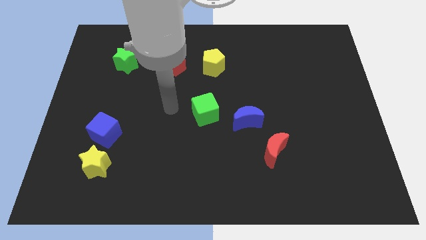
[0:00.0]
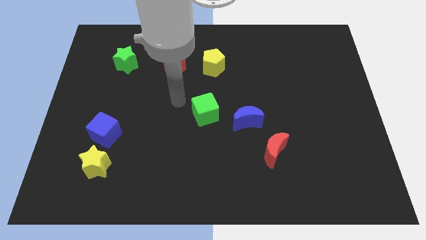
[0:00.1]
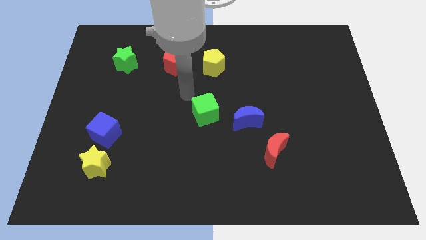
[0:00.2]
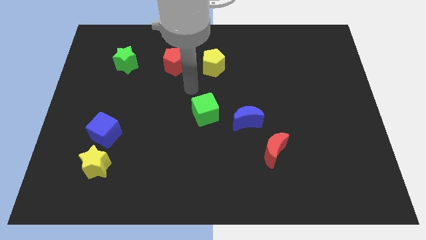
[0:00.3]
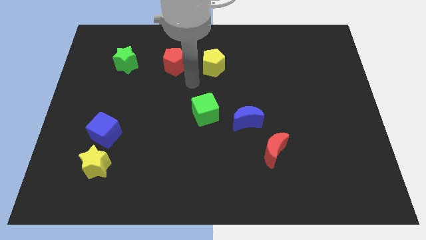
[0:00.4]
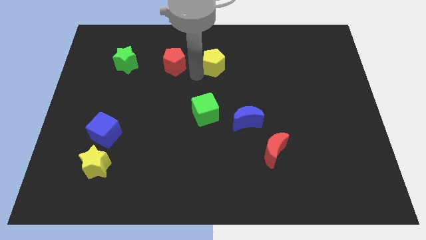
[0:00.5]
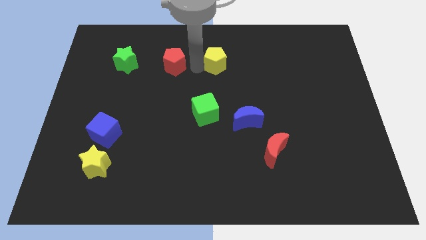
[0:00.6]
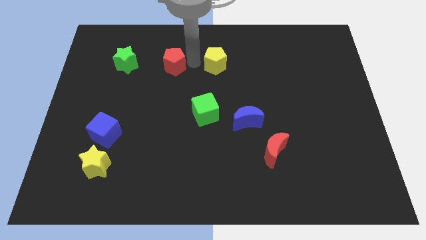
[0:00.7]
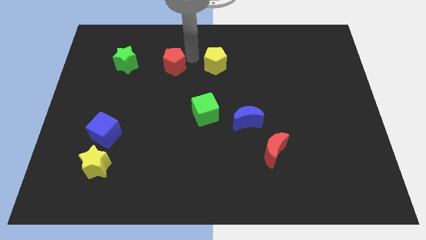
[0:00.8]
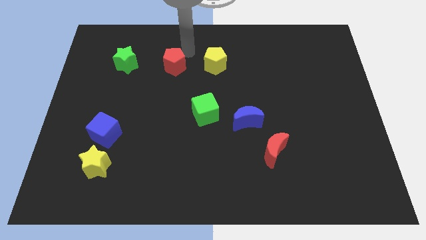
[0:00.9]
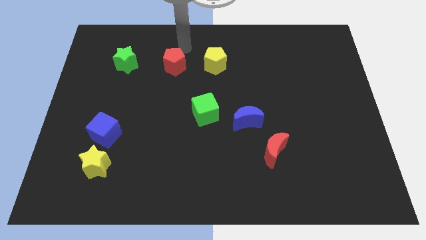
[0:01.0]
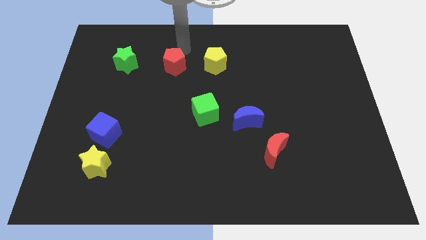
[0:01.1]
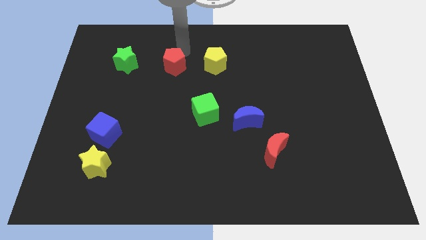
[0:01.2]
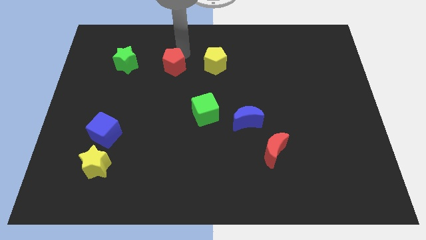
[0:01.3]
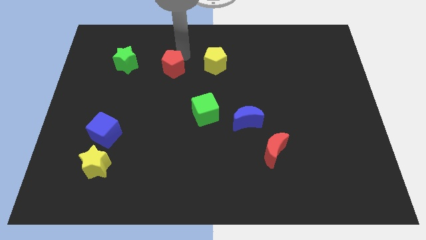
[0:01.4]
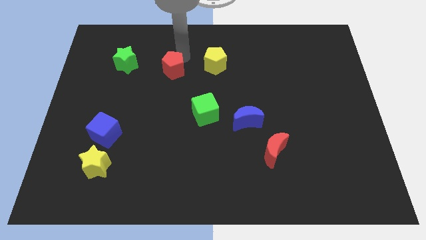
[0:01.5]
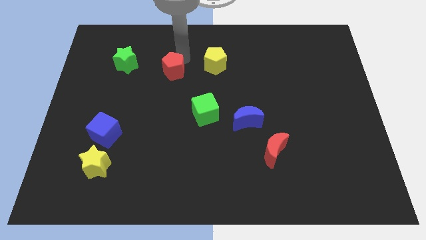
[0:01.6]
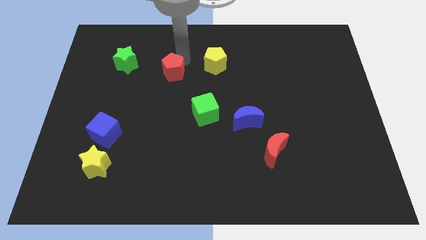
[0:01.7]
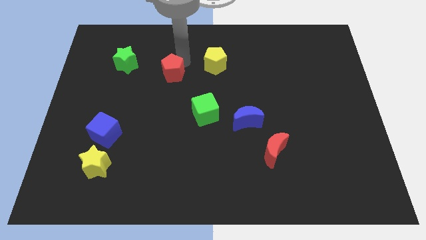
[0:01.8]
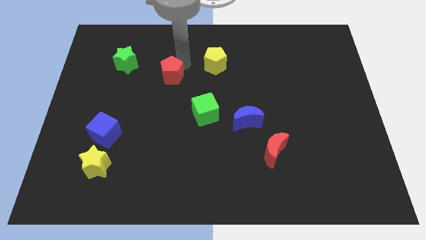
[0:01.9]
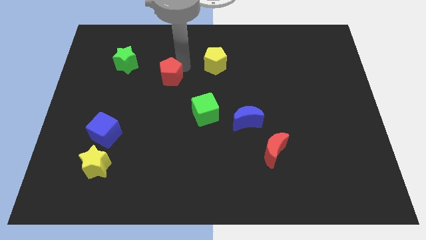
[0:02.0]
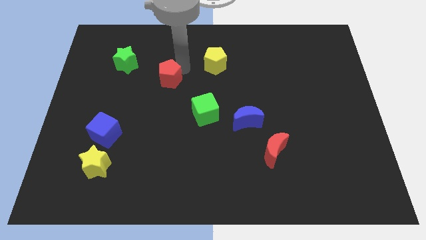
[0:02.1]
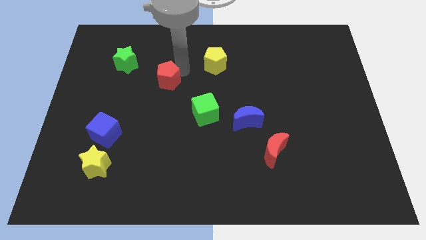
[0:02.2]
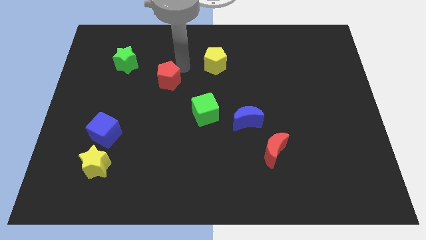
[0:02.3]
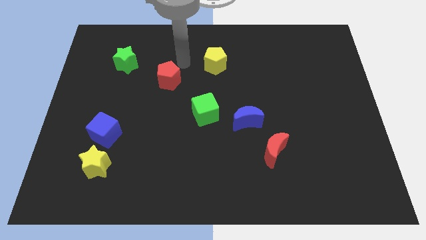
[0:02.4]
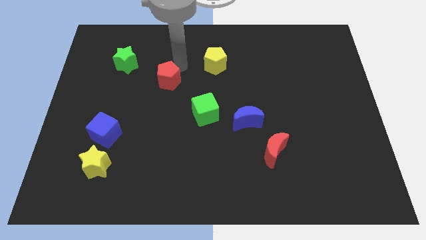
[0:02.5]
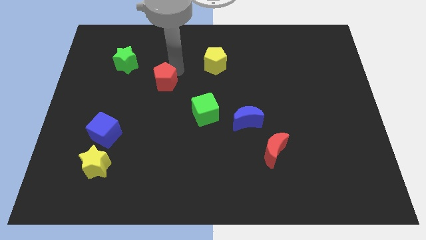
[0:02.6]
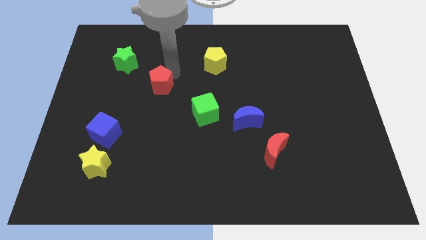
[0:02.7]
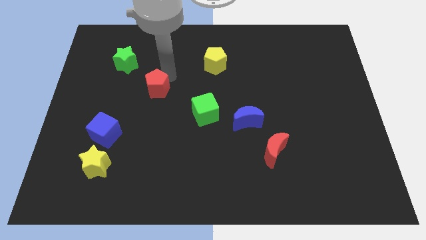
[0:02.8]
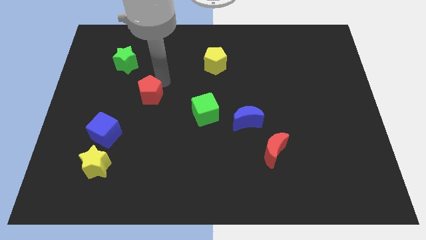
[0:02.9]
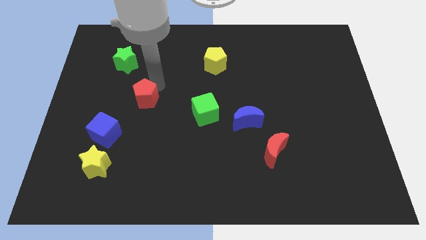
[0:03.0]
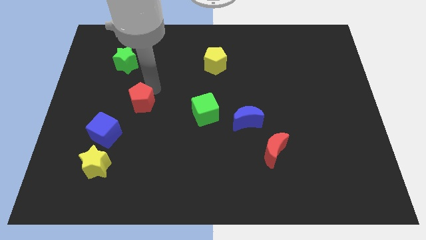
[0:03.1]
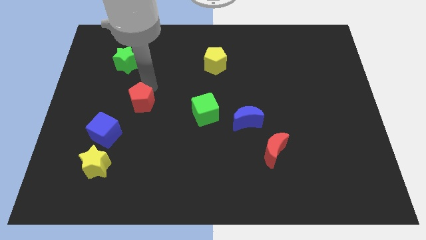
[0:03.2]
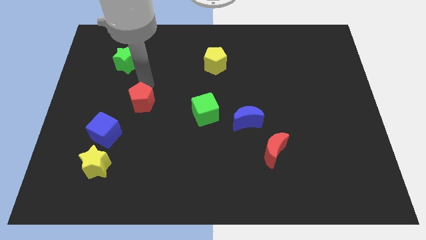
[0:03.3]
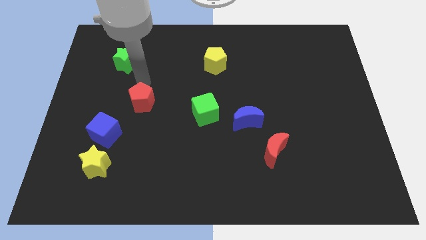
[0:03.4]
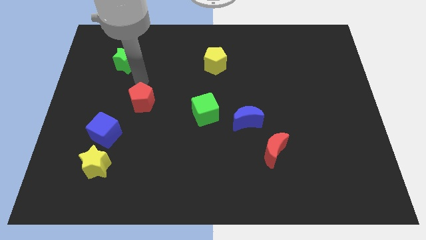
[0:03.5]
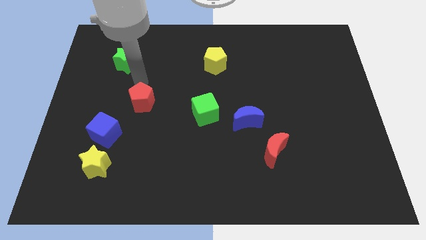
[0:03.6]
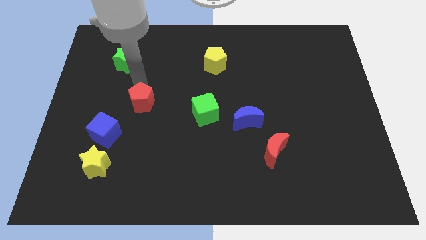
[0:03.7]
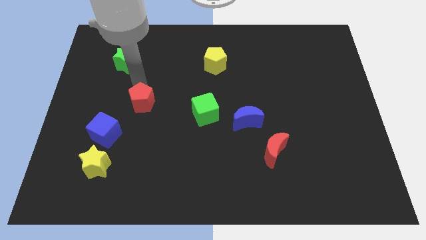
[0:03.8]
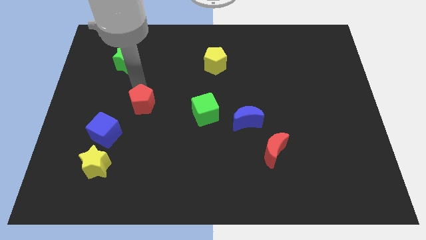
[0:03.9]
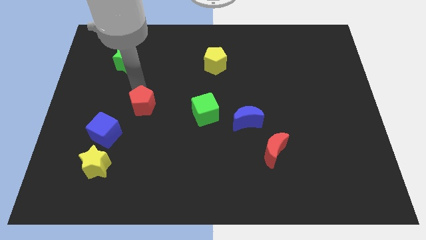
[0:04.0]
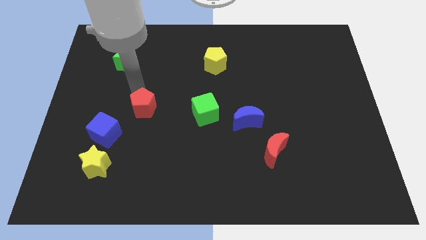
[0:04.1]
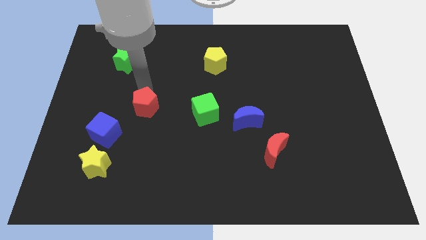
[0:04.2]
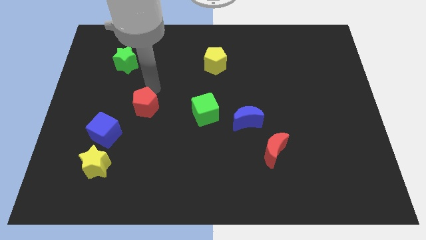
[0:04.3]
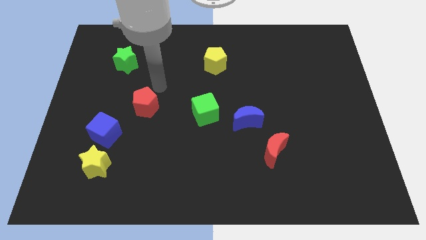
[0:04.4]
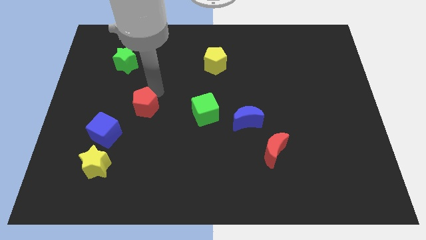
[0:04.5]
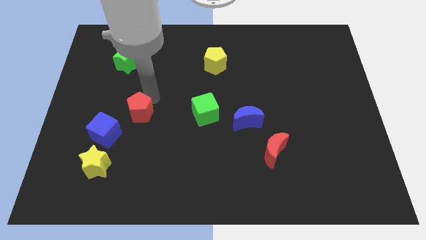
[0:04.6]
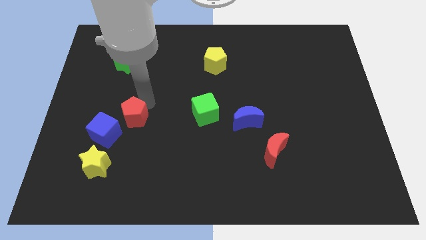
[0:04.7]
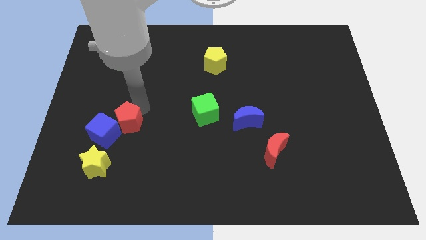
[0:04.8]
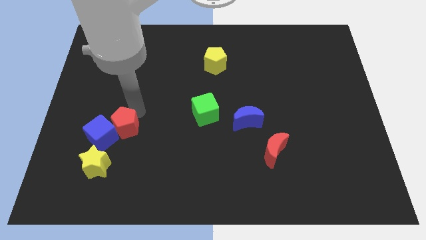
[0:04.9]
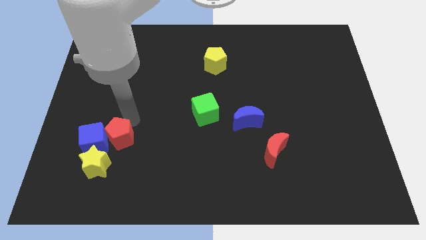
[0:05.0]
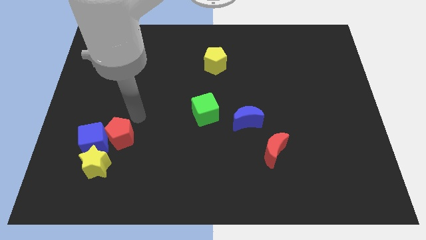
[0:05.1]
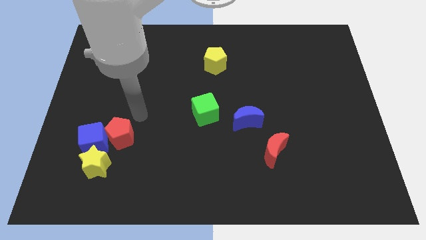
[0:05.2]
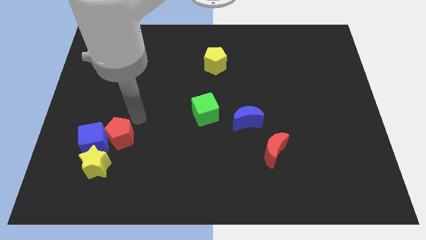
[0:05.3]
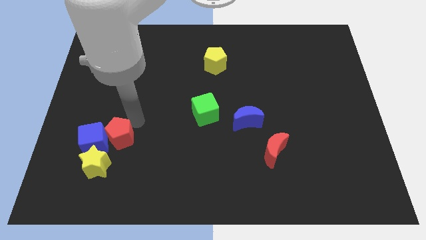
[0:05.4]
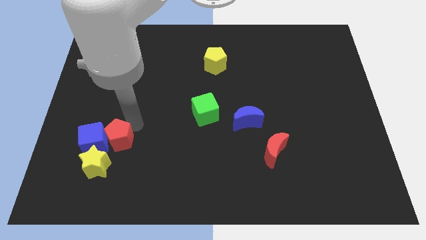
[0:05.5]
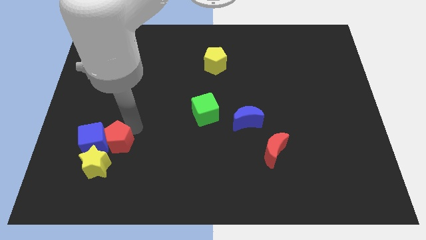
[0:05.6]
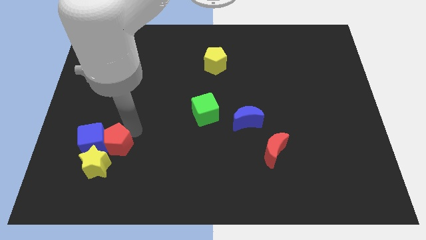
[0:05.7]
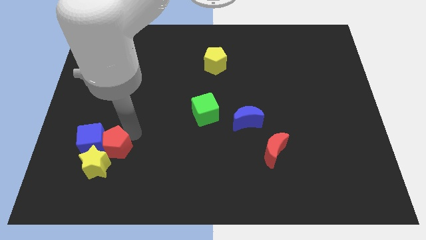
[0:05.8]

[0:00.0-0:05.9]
push the red pentagon next to the yellow star

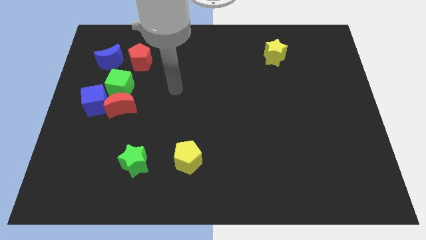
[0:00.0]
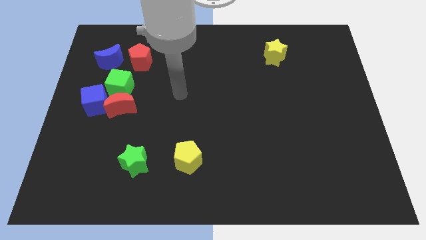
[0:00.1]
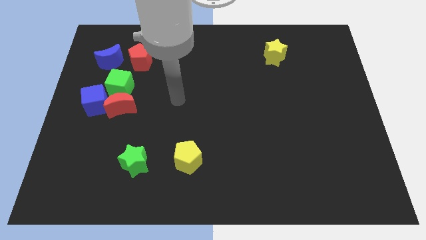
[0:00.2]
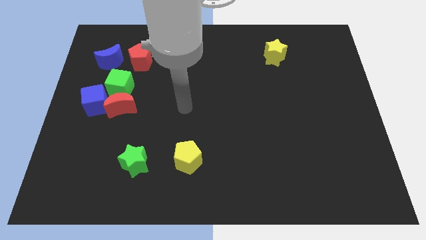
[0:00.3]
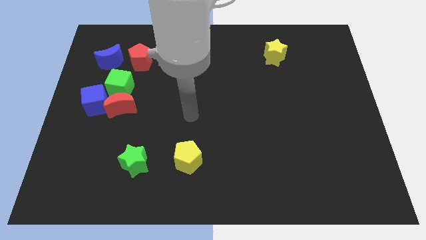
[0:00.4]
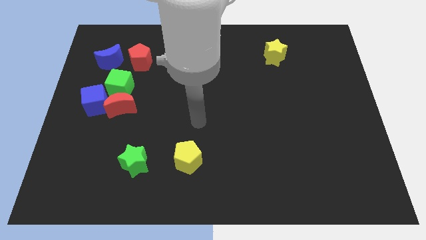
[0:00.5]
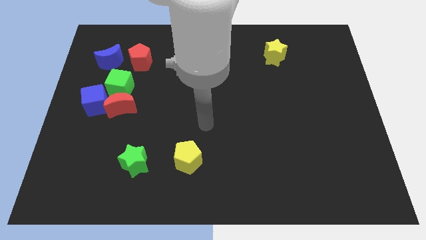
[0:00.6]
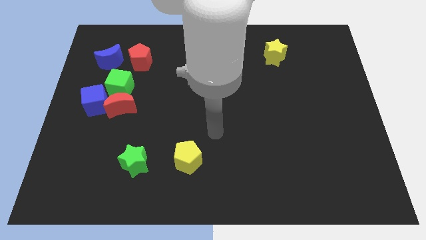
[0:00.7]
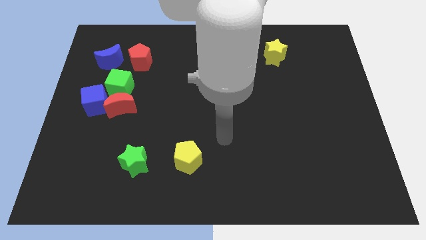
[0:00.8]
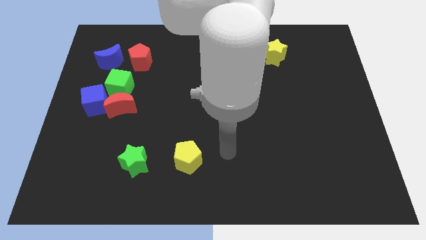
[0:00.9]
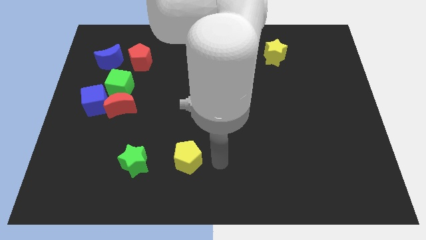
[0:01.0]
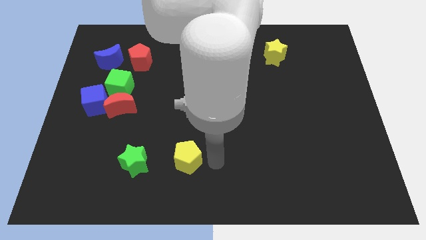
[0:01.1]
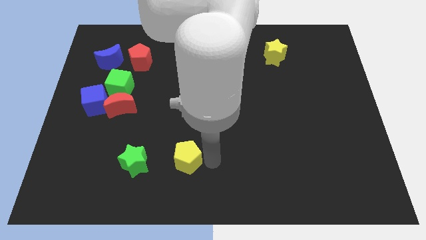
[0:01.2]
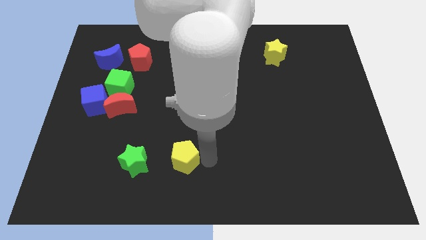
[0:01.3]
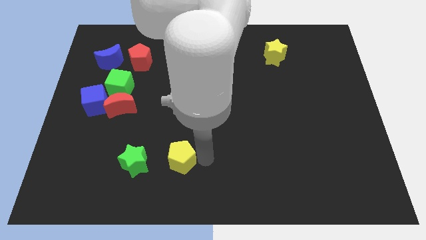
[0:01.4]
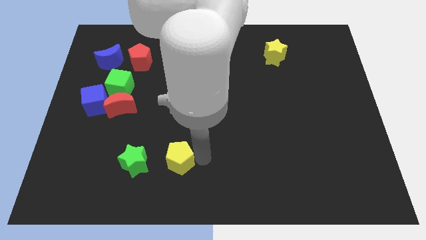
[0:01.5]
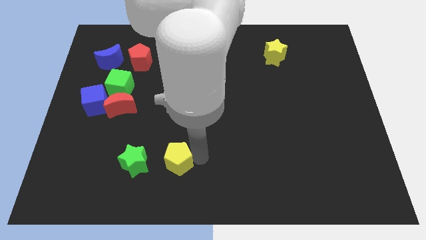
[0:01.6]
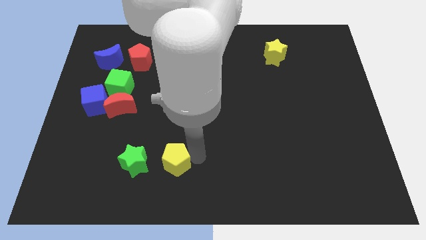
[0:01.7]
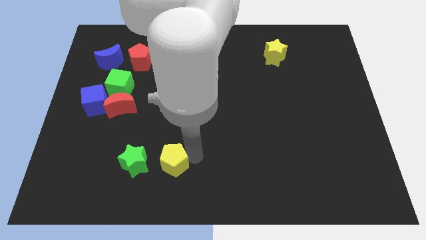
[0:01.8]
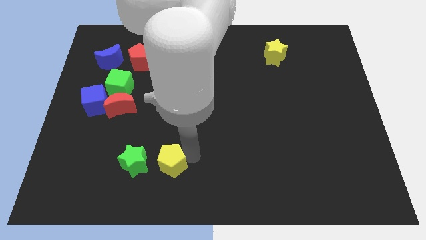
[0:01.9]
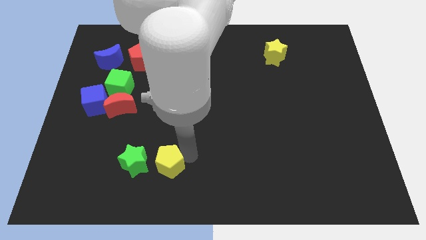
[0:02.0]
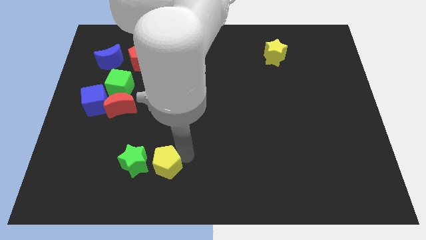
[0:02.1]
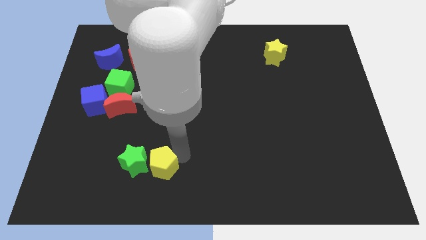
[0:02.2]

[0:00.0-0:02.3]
push the yellow pentagon to the green star
